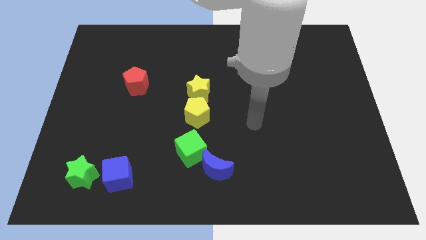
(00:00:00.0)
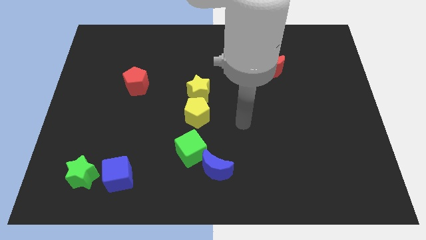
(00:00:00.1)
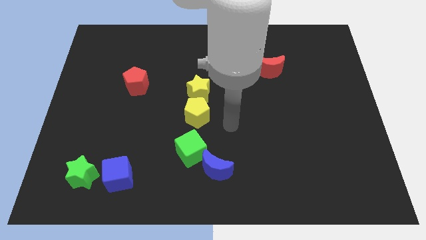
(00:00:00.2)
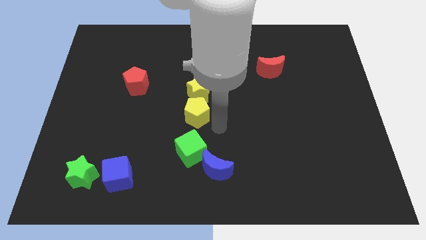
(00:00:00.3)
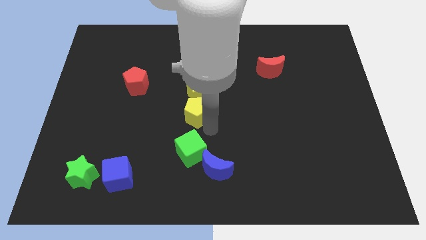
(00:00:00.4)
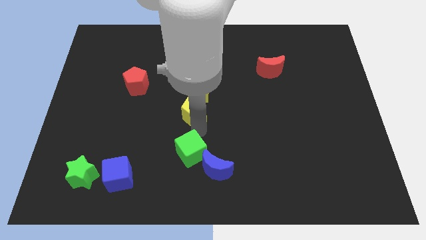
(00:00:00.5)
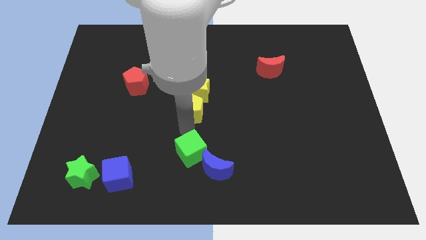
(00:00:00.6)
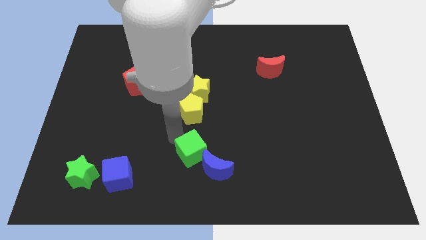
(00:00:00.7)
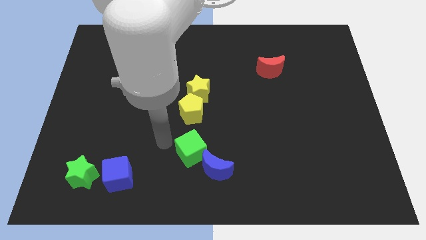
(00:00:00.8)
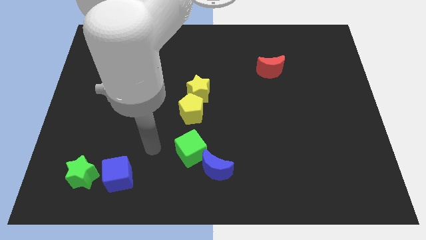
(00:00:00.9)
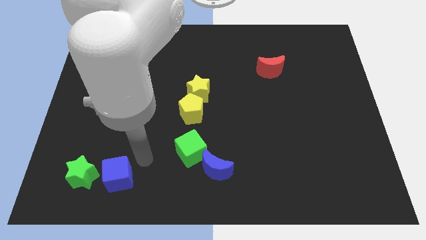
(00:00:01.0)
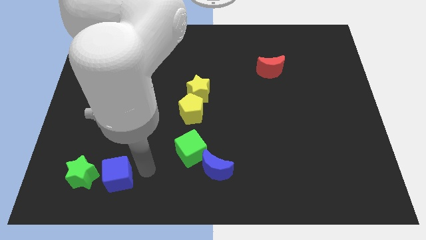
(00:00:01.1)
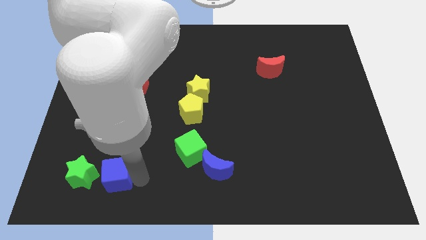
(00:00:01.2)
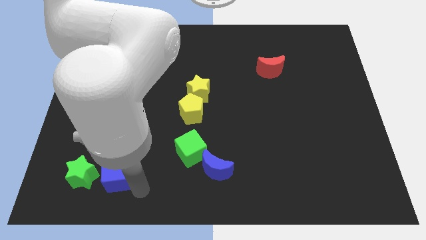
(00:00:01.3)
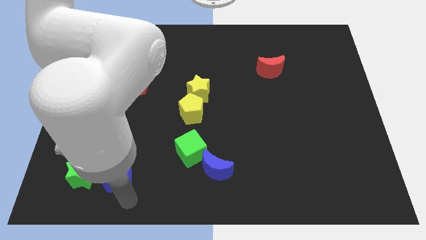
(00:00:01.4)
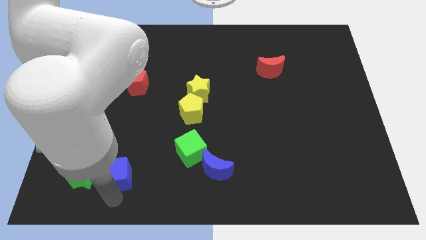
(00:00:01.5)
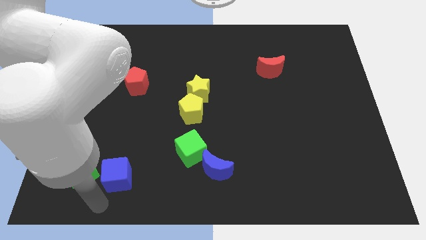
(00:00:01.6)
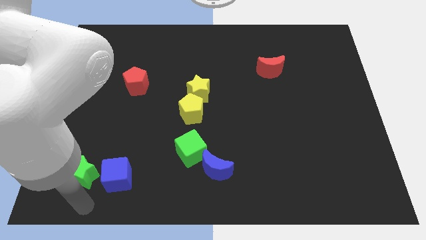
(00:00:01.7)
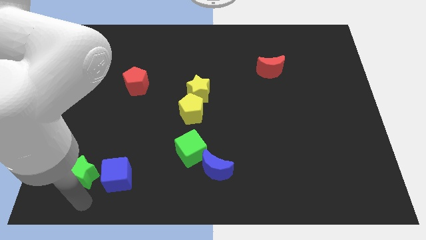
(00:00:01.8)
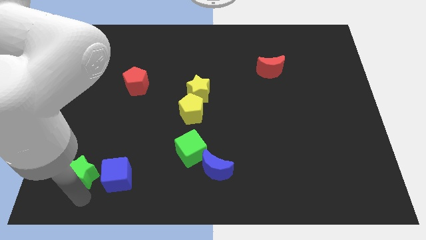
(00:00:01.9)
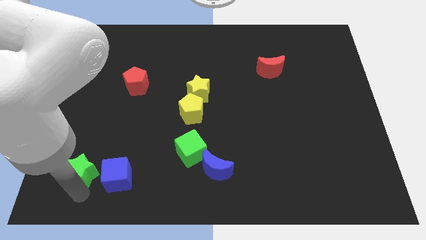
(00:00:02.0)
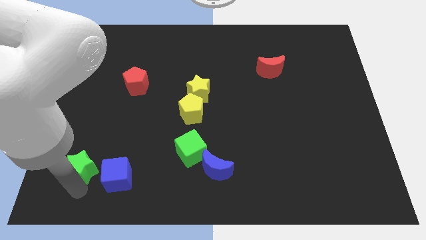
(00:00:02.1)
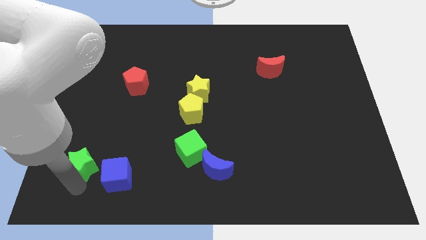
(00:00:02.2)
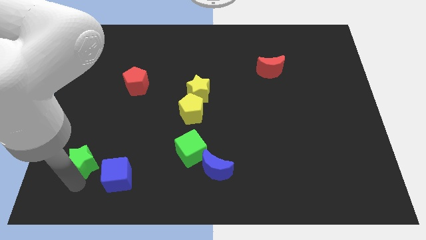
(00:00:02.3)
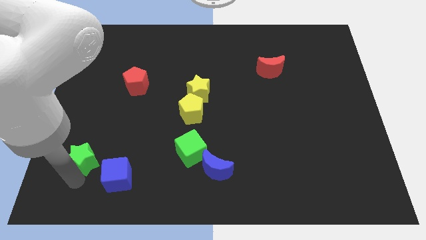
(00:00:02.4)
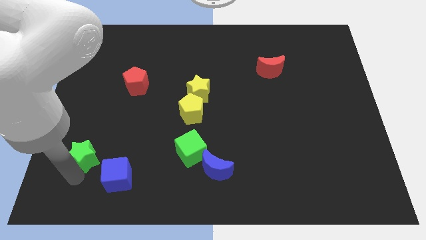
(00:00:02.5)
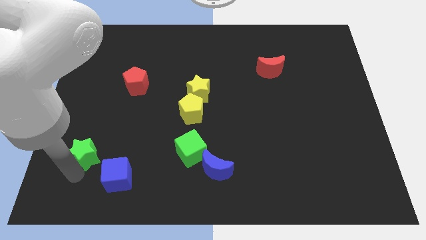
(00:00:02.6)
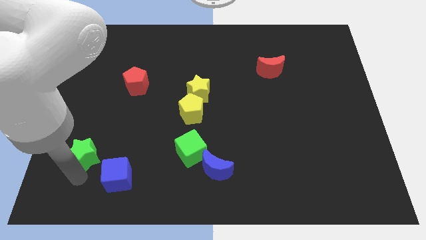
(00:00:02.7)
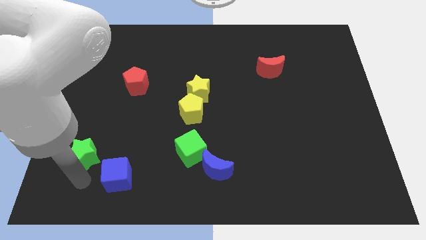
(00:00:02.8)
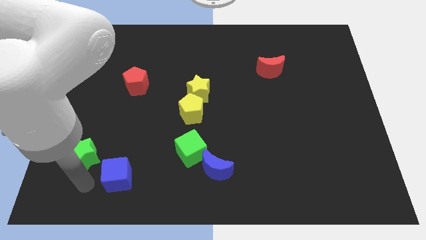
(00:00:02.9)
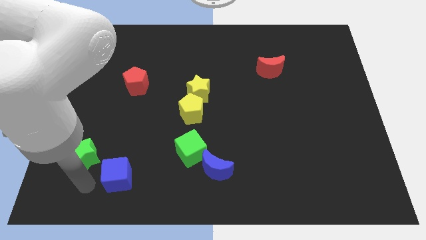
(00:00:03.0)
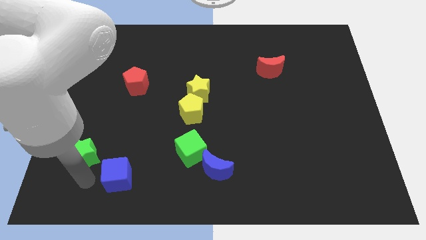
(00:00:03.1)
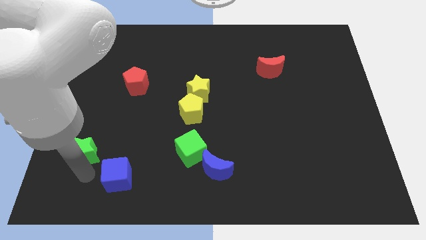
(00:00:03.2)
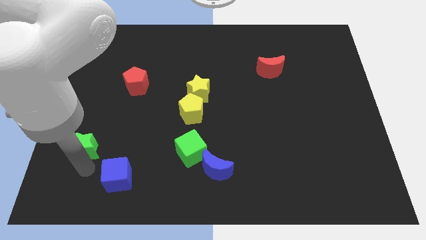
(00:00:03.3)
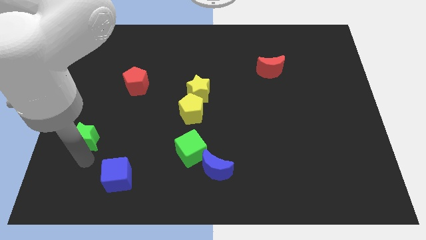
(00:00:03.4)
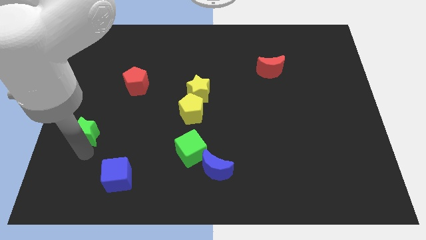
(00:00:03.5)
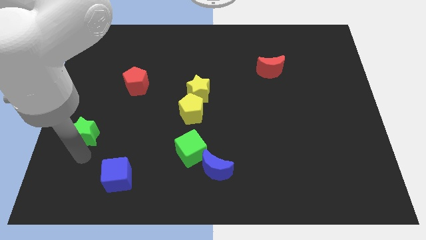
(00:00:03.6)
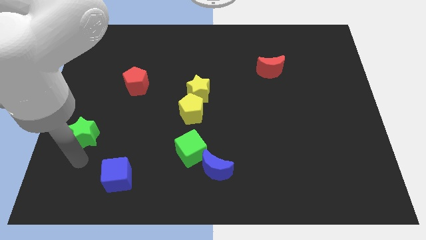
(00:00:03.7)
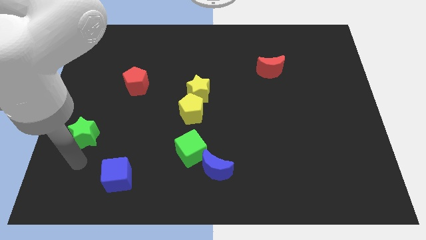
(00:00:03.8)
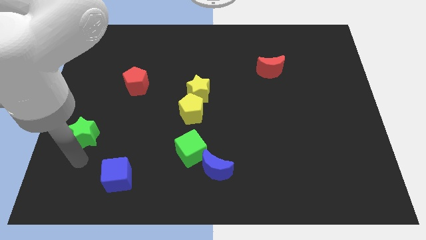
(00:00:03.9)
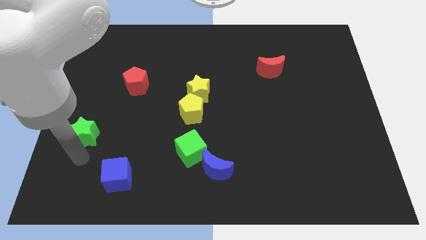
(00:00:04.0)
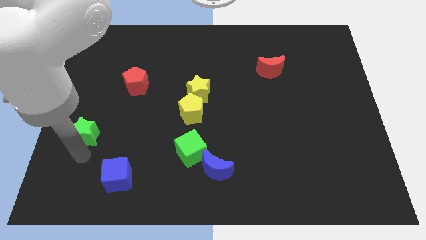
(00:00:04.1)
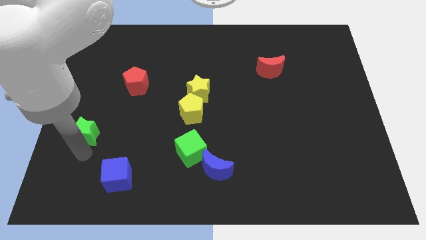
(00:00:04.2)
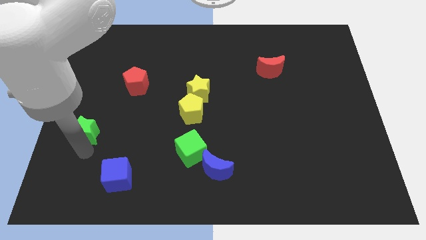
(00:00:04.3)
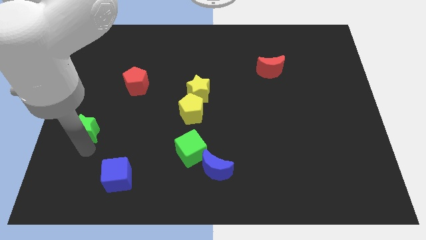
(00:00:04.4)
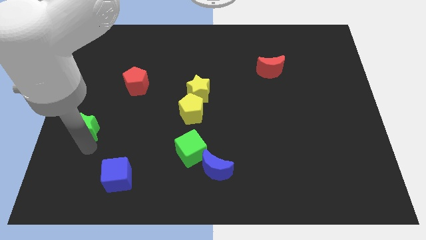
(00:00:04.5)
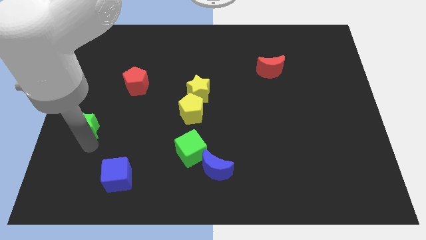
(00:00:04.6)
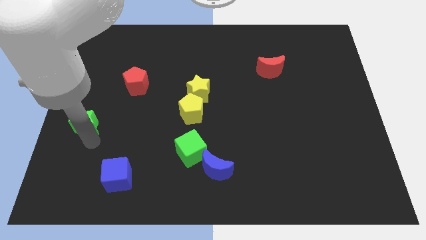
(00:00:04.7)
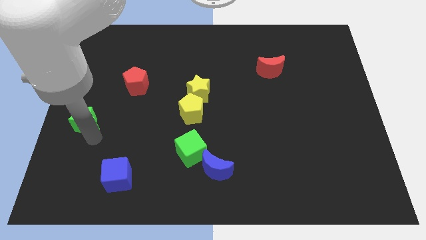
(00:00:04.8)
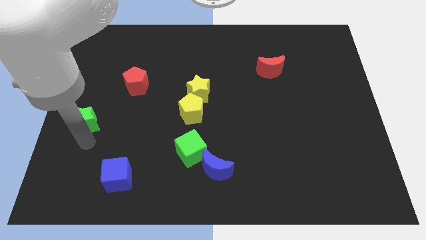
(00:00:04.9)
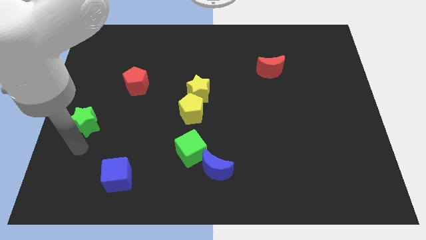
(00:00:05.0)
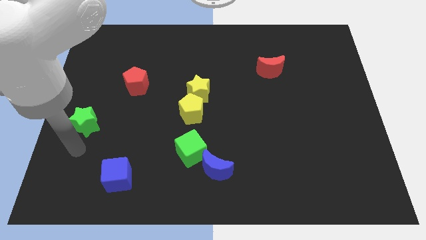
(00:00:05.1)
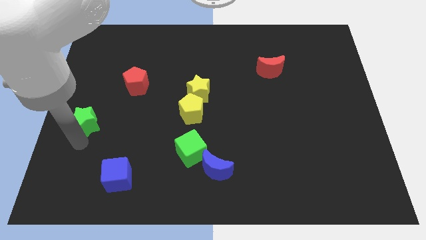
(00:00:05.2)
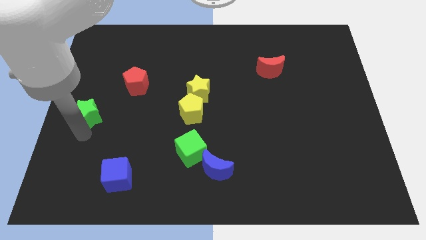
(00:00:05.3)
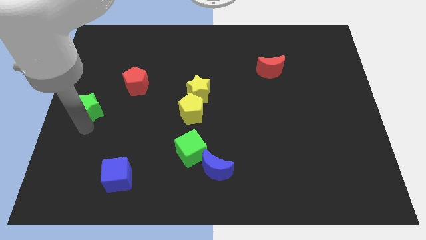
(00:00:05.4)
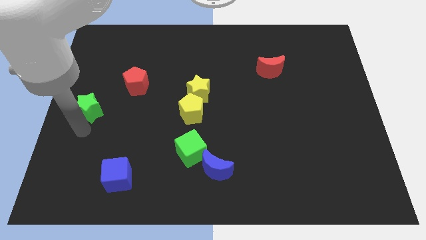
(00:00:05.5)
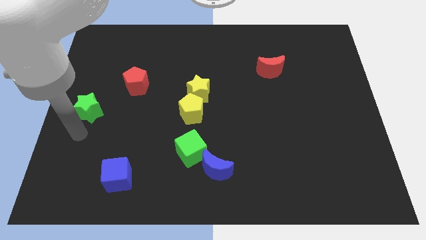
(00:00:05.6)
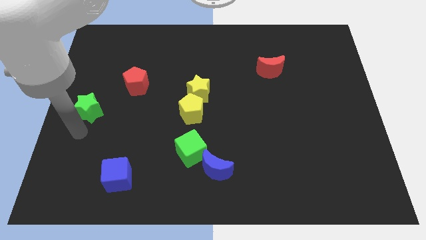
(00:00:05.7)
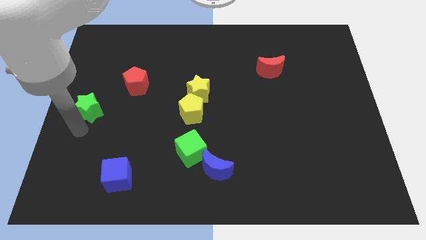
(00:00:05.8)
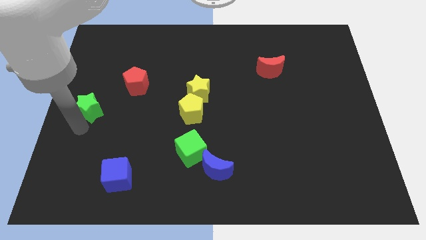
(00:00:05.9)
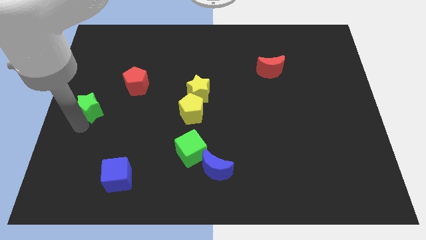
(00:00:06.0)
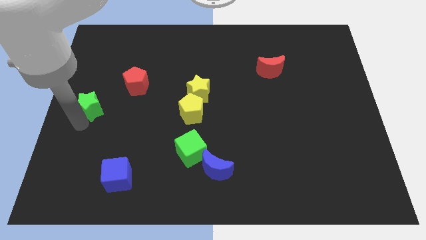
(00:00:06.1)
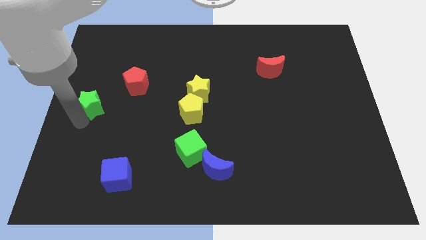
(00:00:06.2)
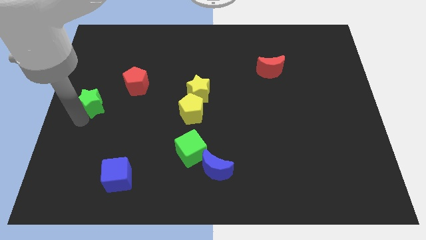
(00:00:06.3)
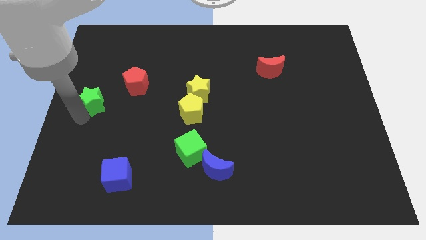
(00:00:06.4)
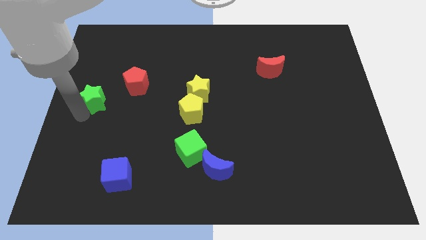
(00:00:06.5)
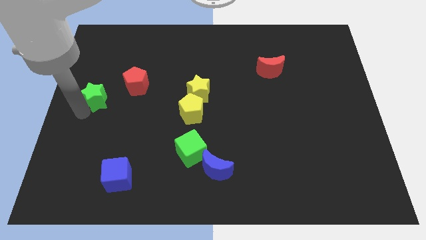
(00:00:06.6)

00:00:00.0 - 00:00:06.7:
push the green star up

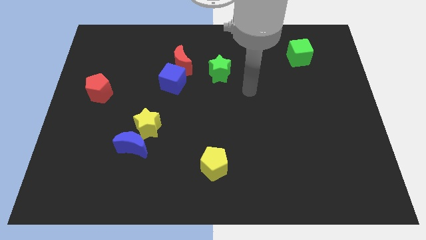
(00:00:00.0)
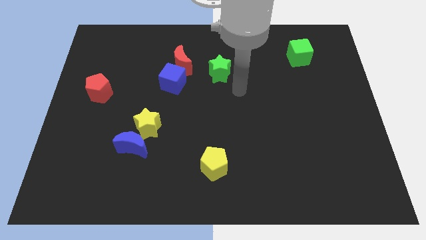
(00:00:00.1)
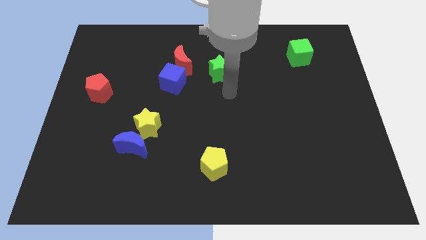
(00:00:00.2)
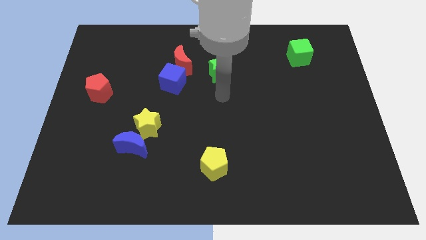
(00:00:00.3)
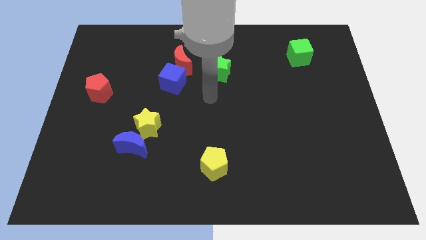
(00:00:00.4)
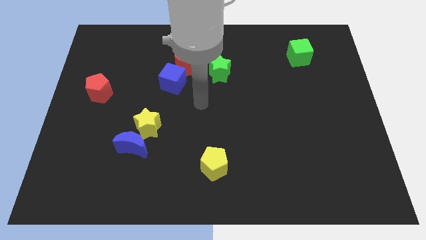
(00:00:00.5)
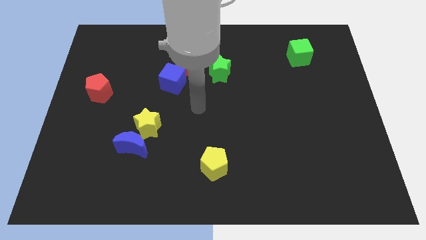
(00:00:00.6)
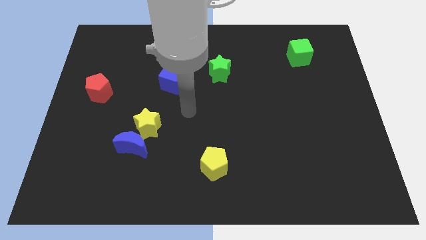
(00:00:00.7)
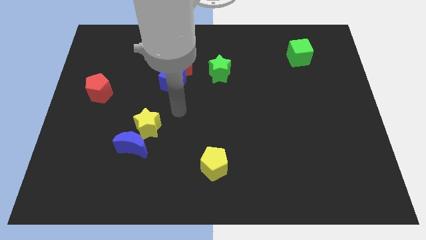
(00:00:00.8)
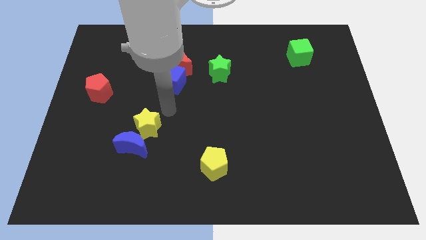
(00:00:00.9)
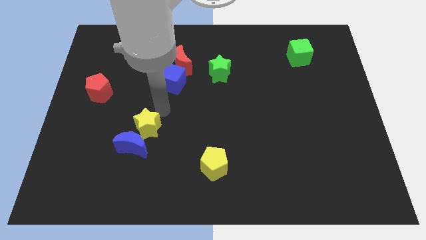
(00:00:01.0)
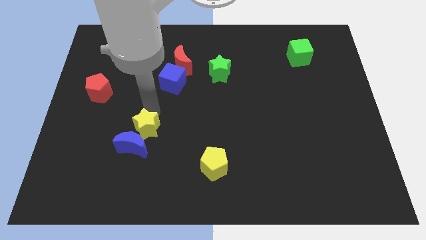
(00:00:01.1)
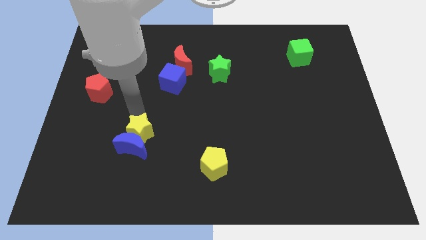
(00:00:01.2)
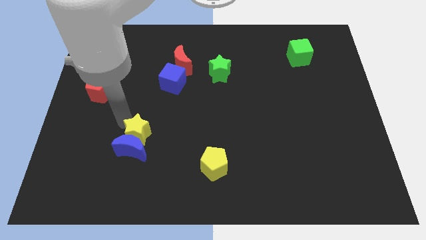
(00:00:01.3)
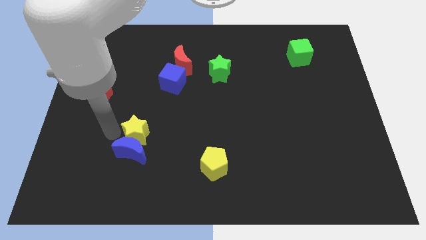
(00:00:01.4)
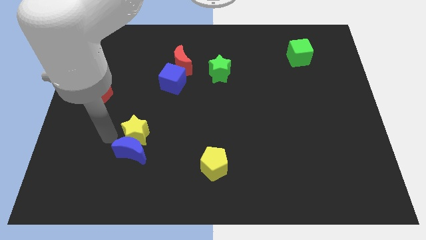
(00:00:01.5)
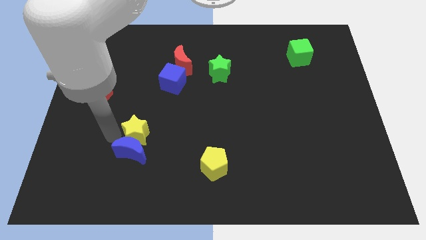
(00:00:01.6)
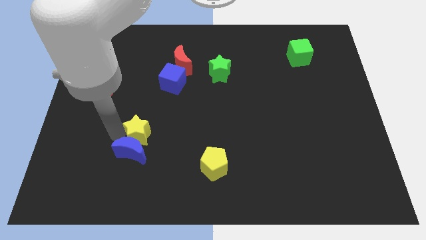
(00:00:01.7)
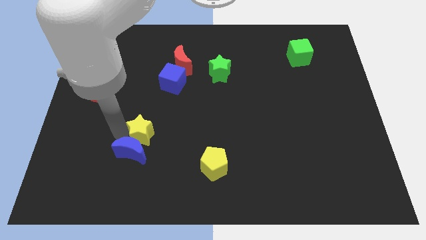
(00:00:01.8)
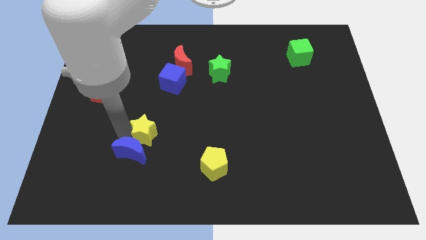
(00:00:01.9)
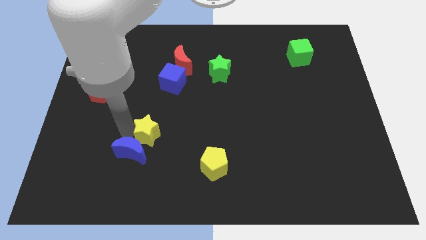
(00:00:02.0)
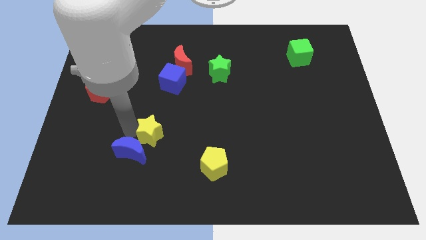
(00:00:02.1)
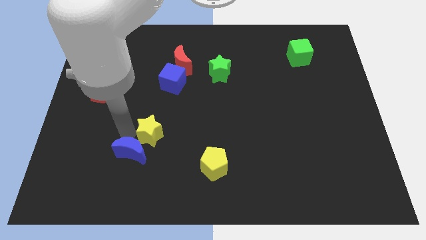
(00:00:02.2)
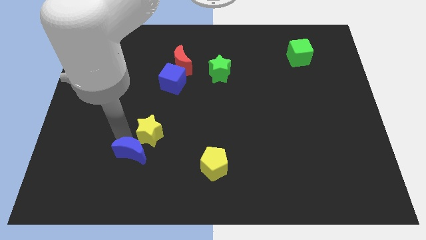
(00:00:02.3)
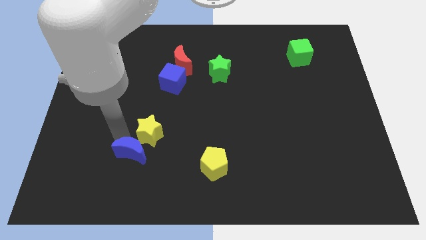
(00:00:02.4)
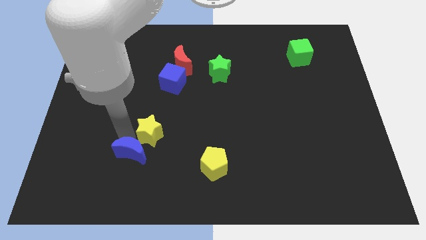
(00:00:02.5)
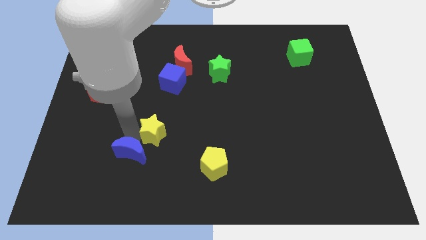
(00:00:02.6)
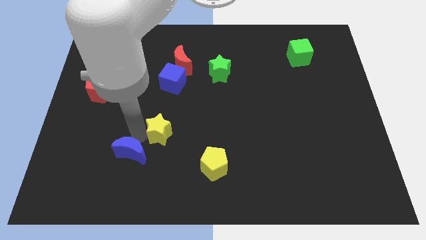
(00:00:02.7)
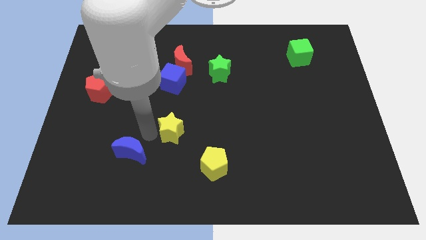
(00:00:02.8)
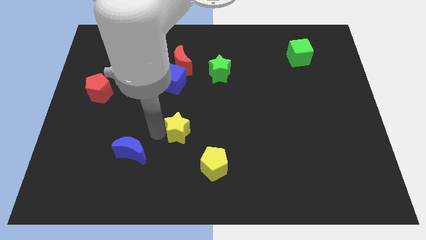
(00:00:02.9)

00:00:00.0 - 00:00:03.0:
slightly push the yellow star right
